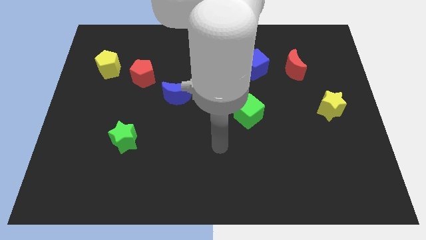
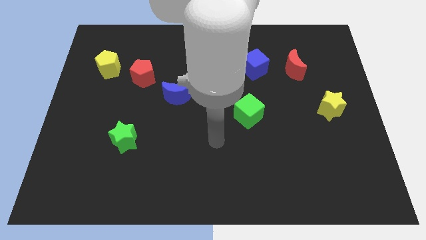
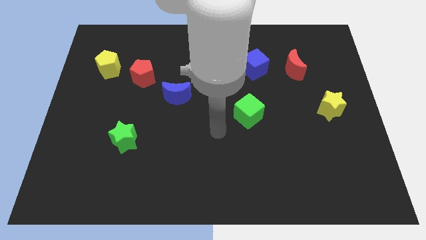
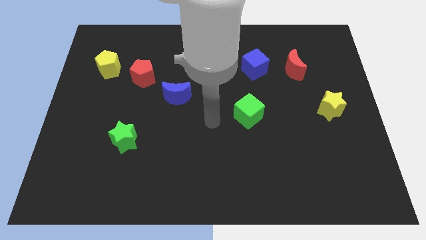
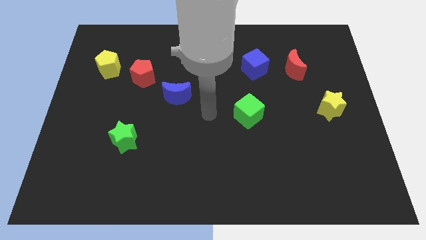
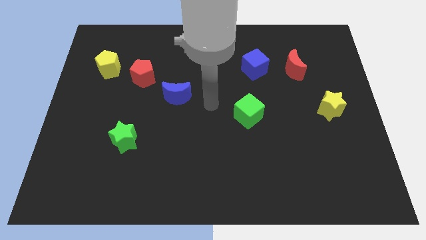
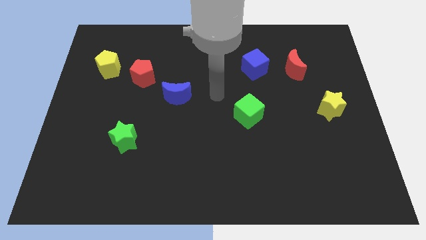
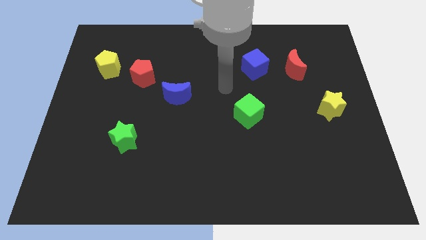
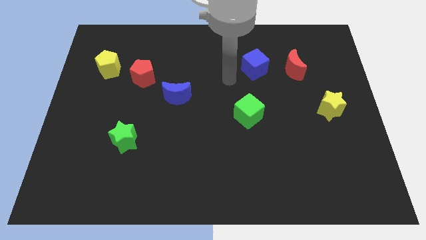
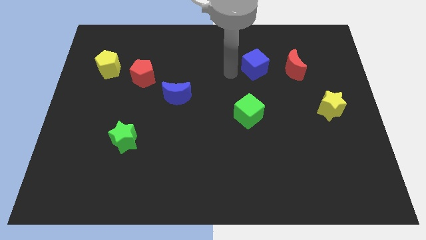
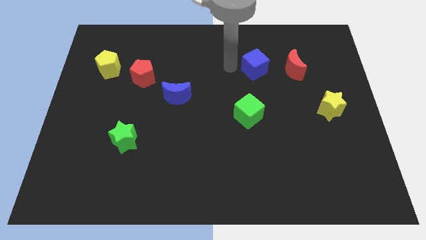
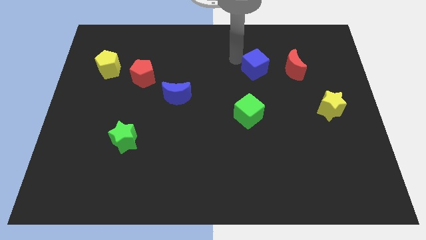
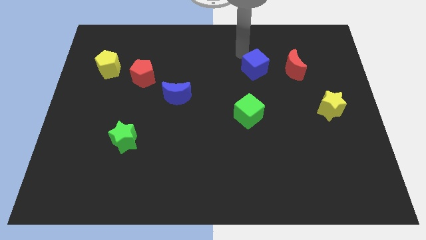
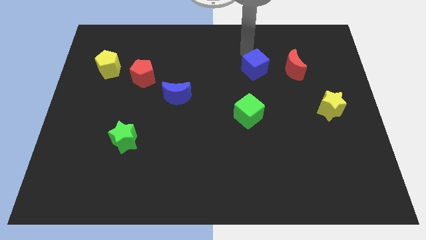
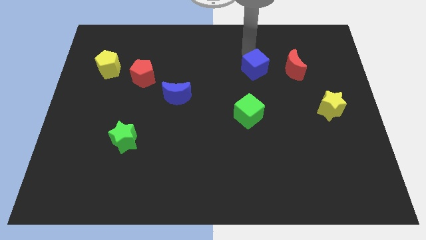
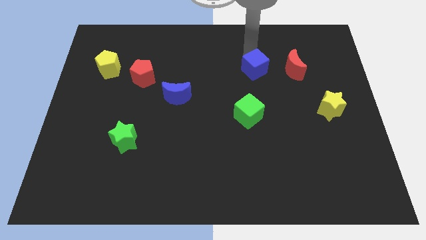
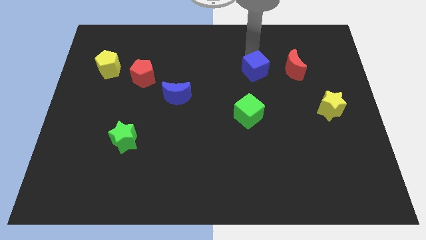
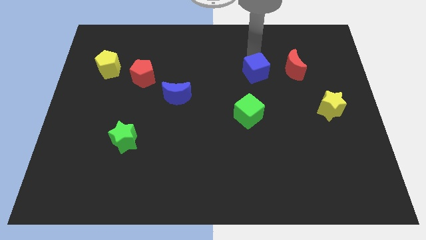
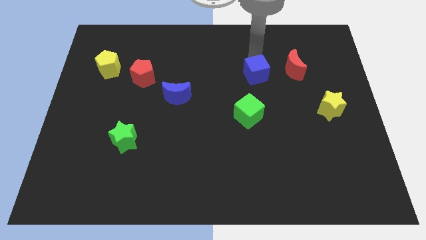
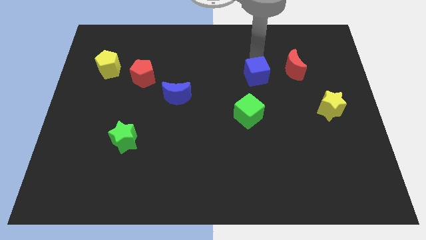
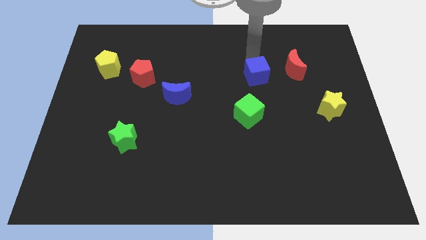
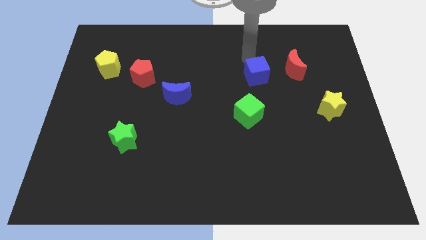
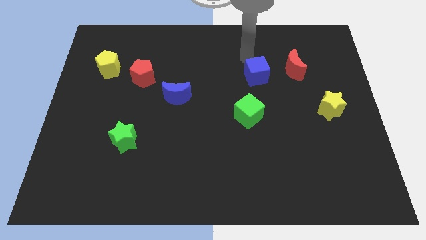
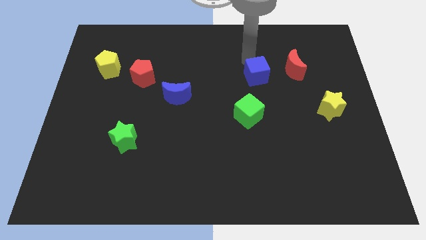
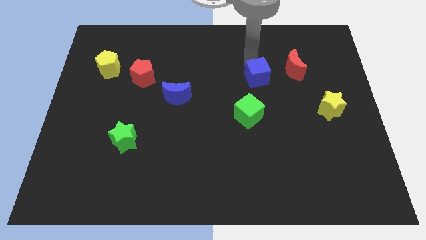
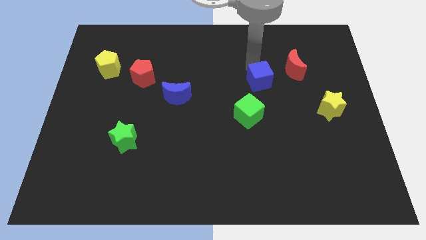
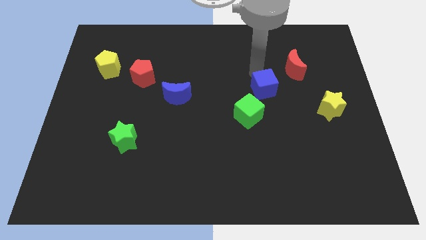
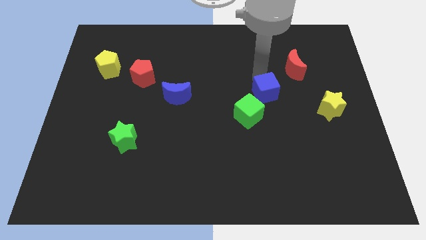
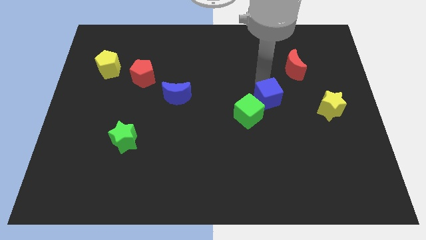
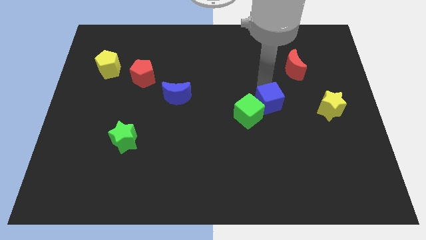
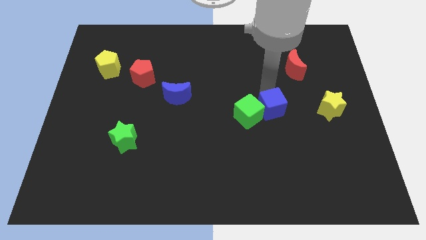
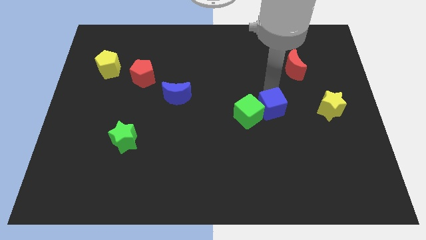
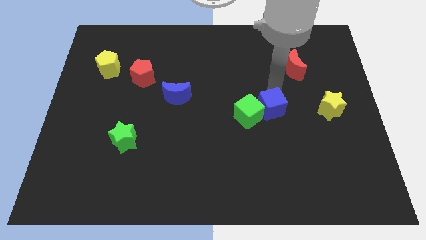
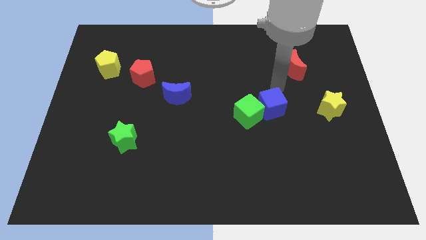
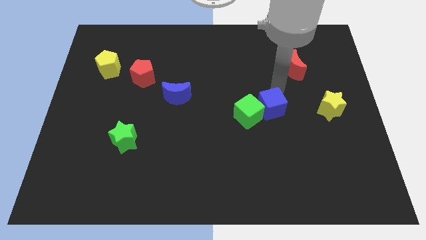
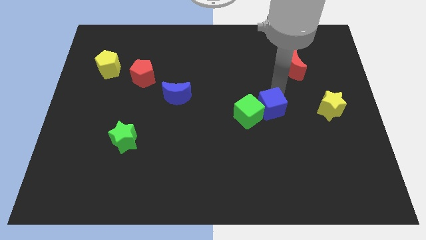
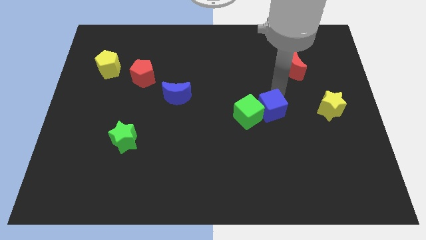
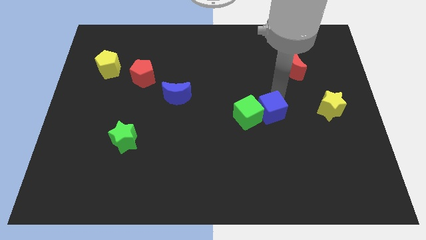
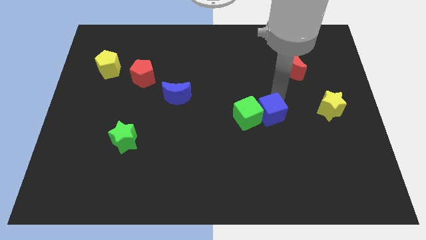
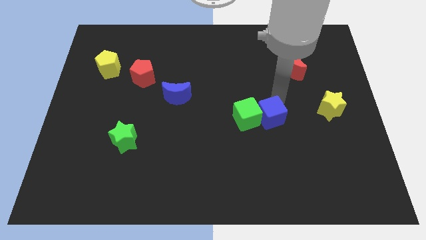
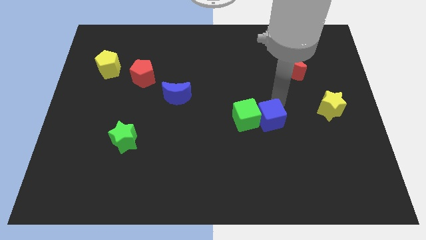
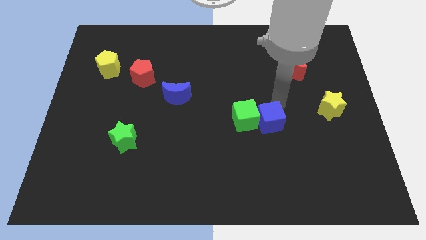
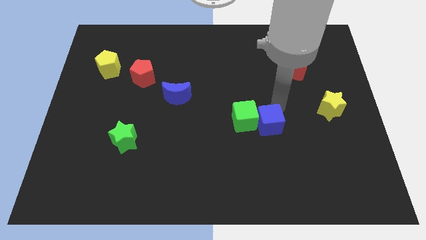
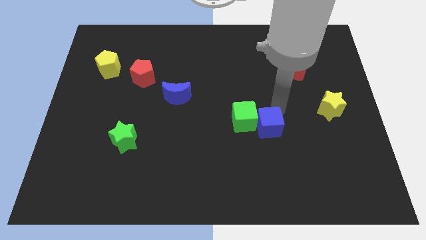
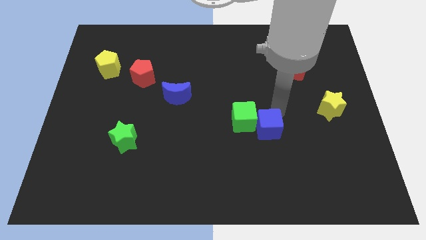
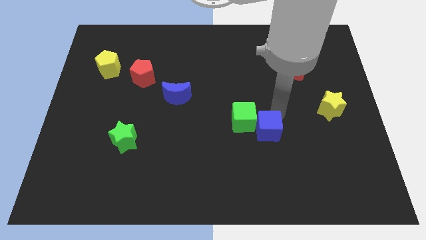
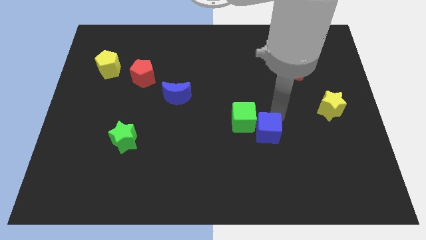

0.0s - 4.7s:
push the blue cube downwards

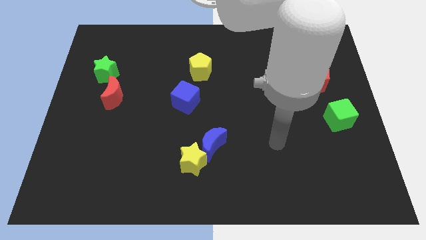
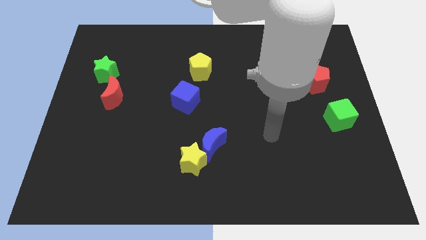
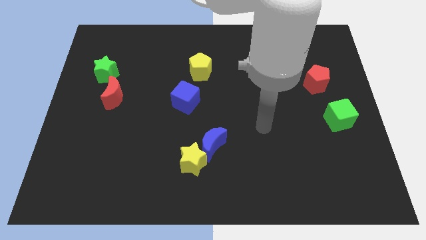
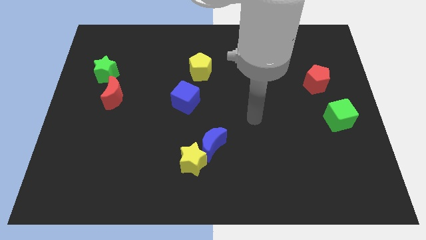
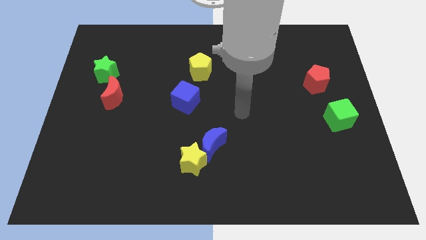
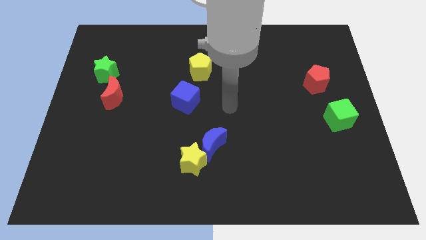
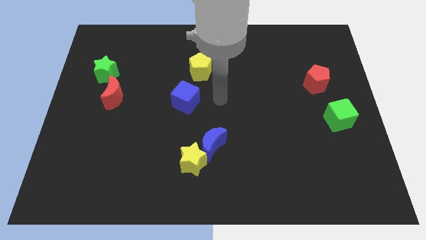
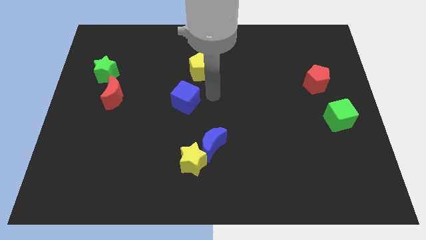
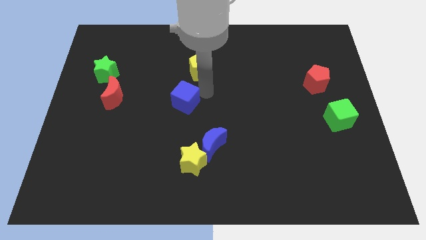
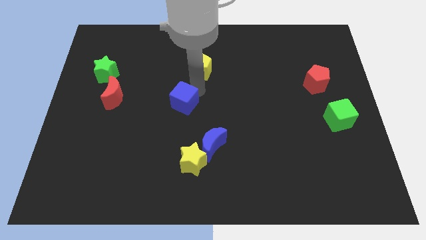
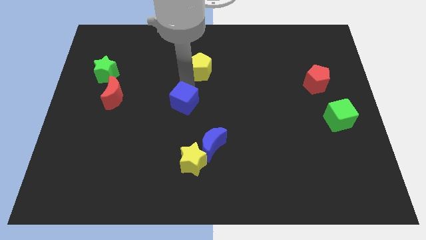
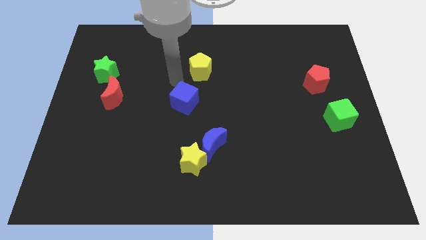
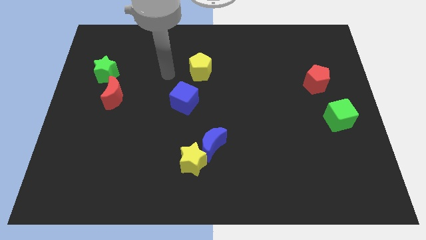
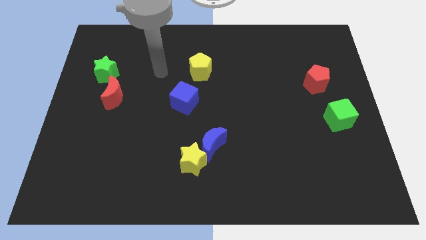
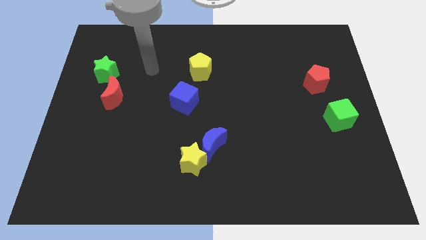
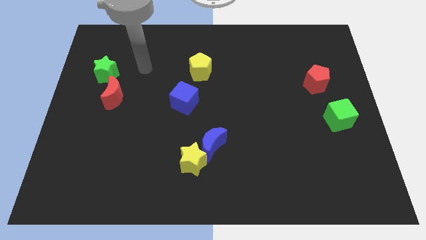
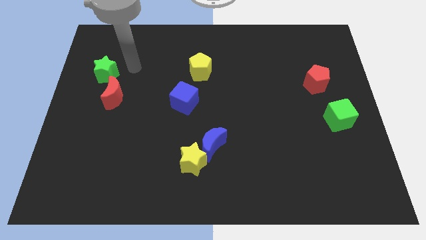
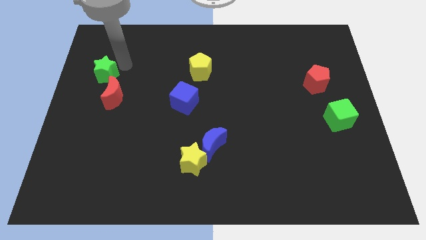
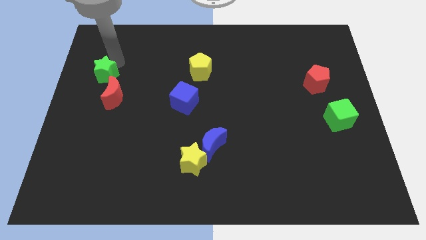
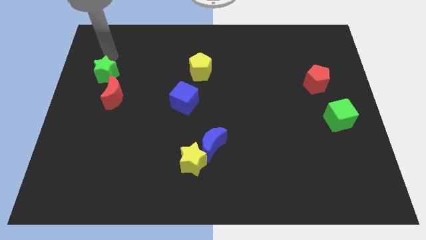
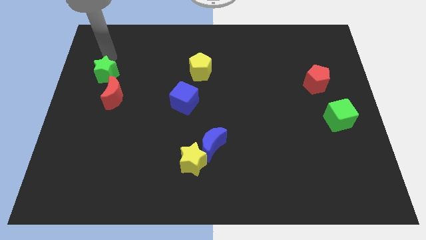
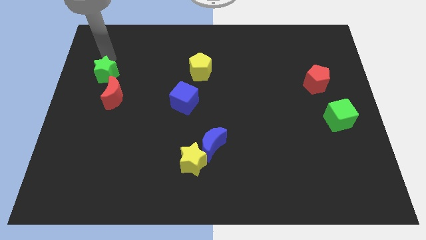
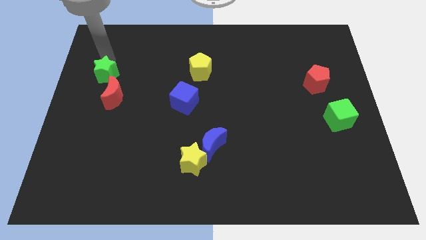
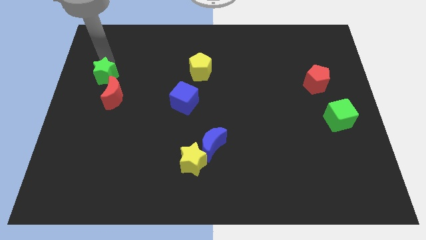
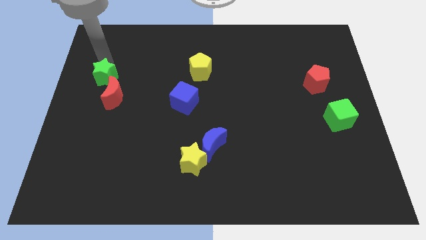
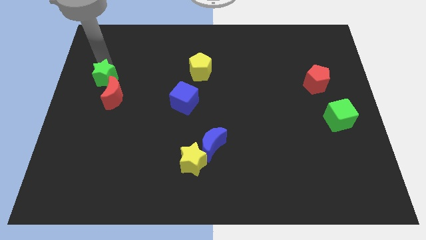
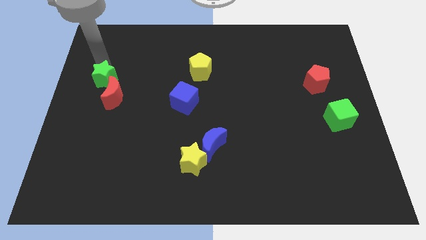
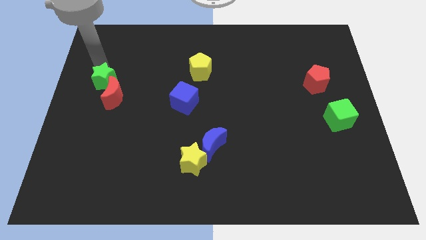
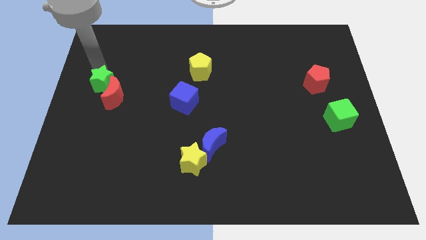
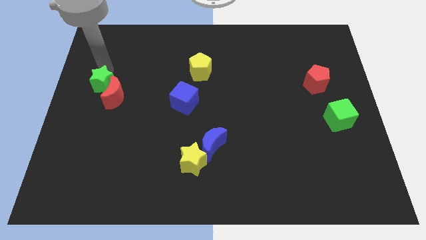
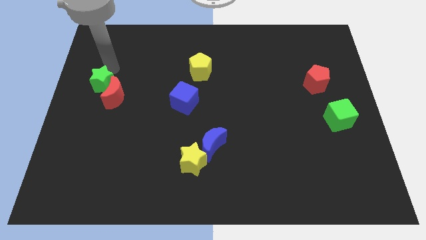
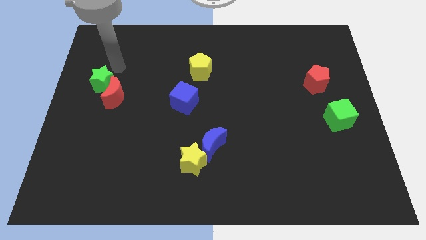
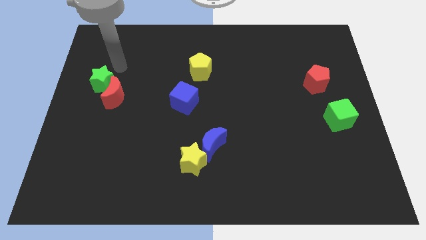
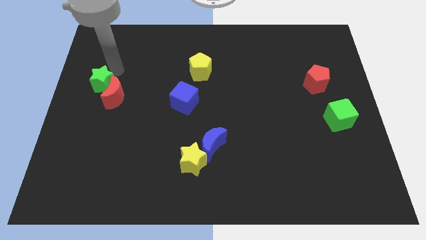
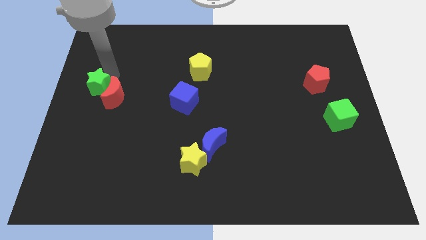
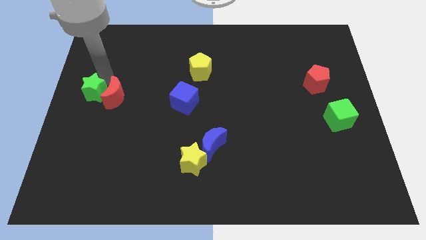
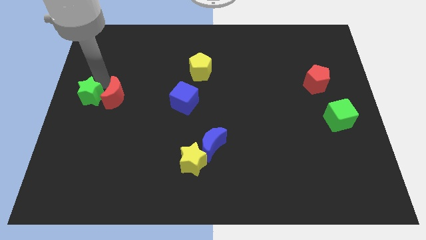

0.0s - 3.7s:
slide the green star a little bit down
